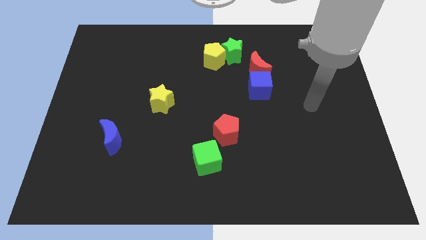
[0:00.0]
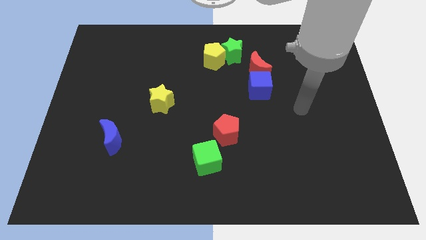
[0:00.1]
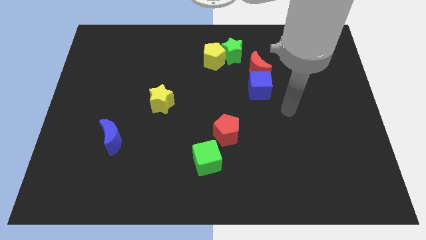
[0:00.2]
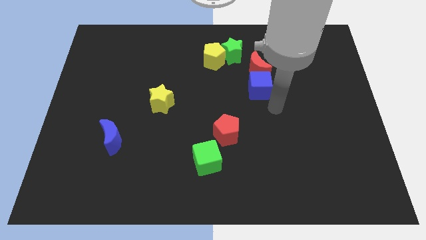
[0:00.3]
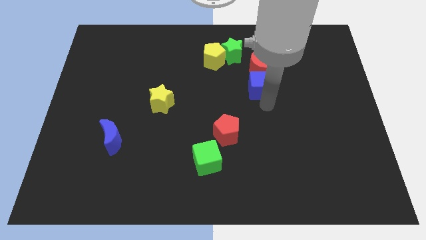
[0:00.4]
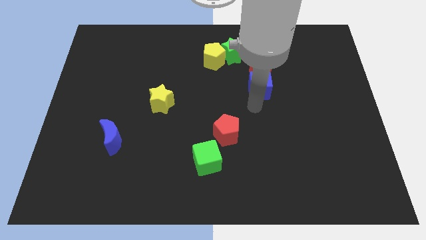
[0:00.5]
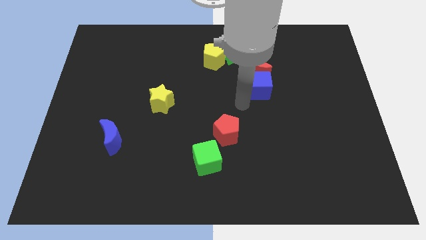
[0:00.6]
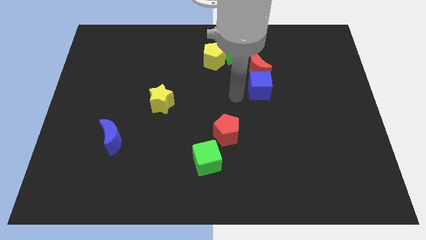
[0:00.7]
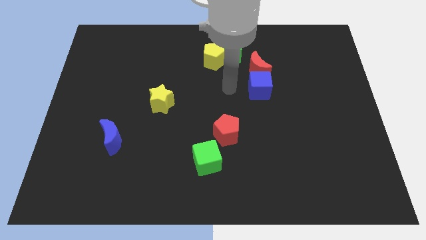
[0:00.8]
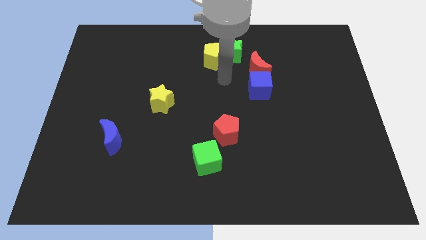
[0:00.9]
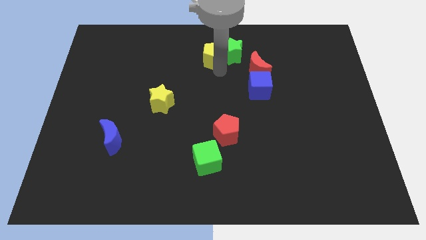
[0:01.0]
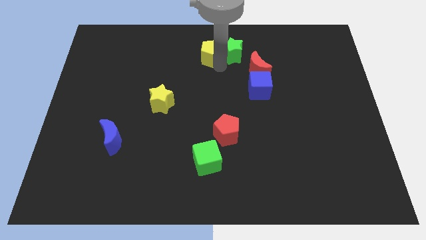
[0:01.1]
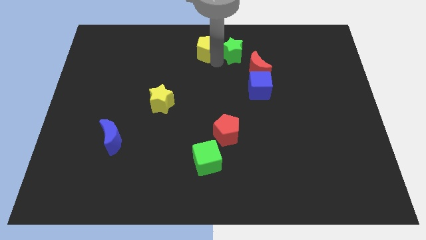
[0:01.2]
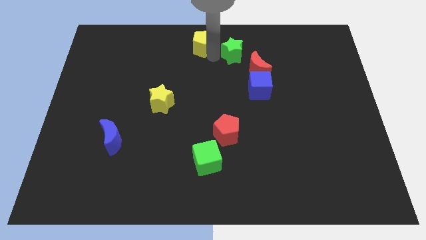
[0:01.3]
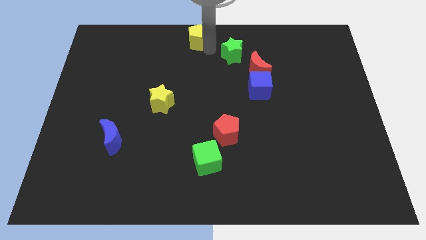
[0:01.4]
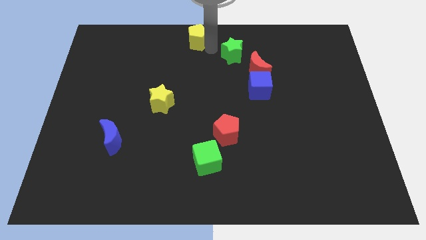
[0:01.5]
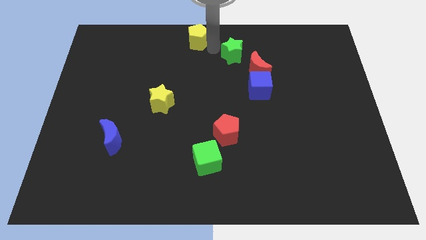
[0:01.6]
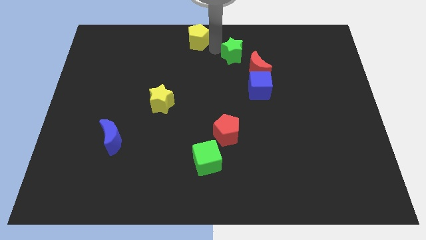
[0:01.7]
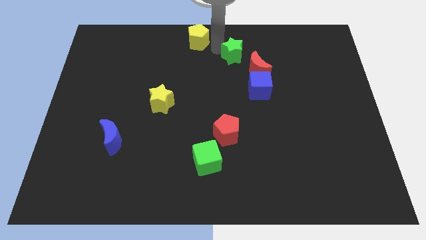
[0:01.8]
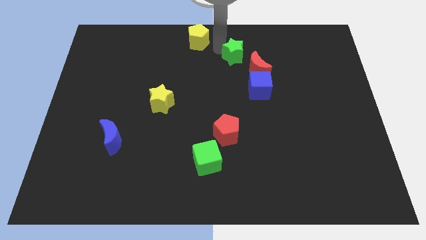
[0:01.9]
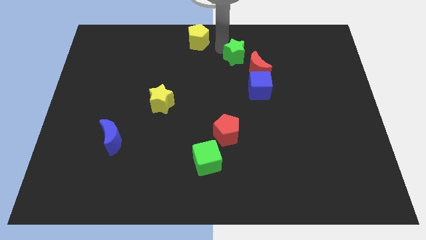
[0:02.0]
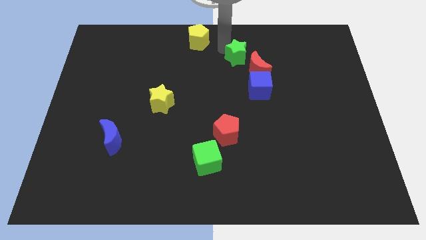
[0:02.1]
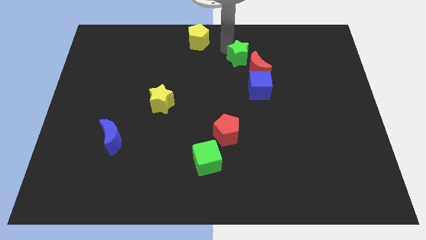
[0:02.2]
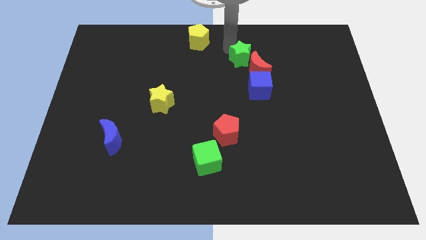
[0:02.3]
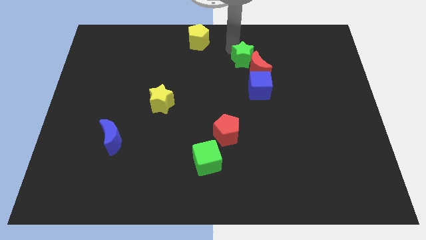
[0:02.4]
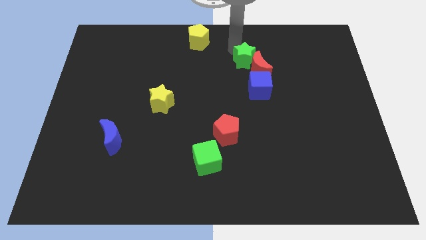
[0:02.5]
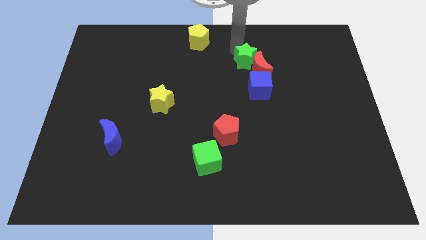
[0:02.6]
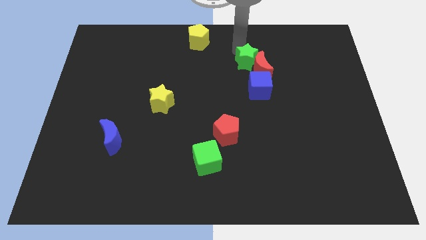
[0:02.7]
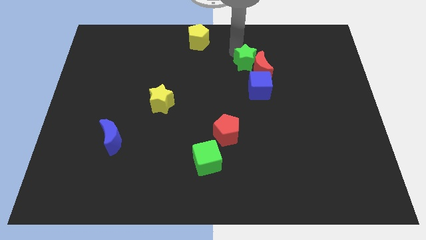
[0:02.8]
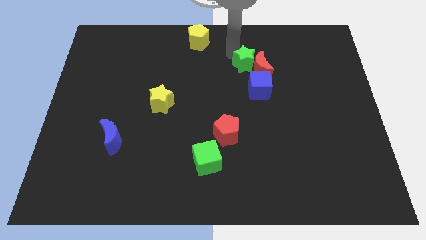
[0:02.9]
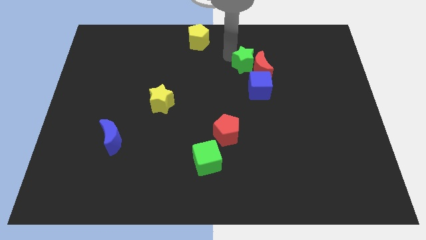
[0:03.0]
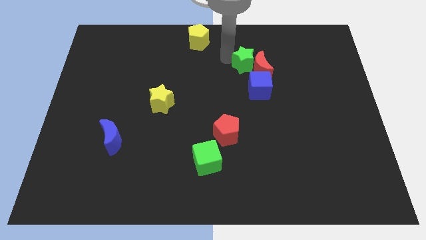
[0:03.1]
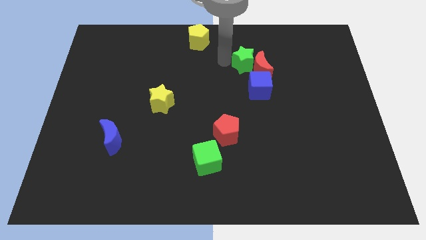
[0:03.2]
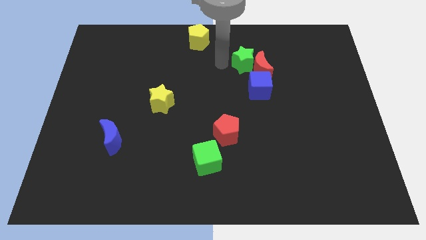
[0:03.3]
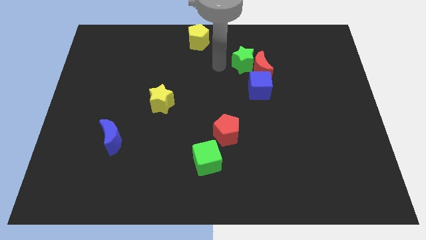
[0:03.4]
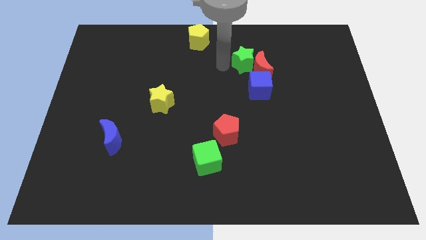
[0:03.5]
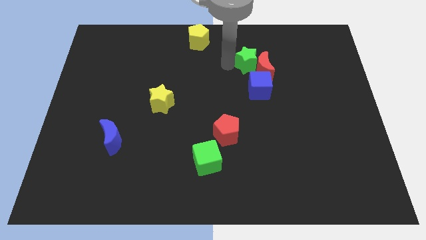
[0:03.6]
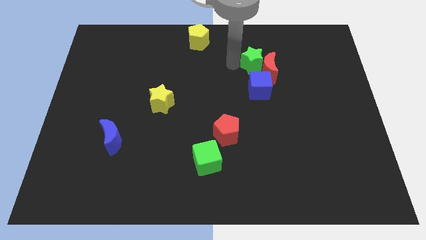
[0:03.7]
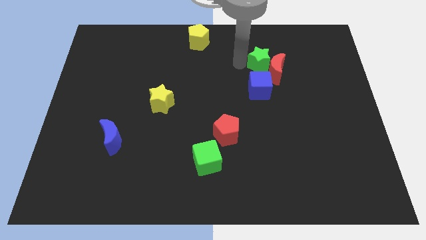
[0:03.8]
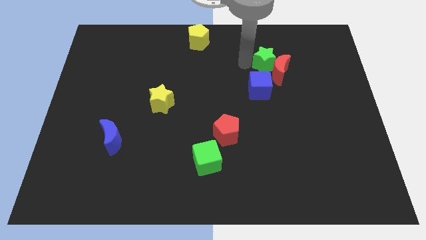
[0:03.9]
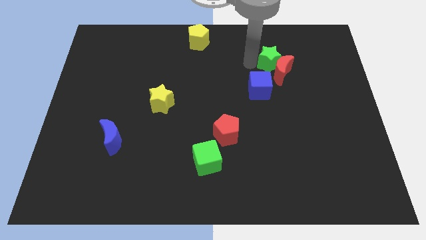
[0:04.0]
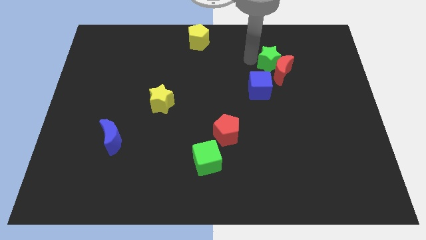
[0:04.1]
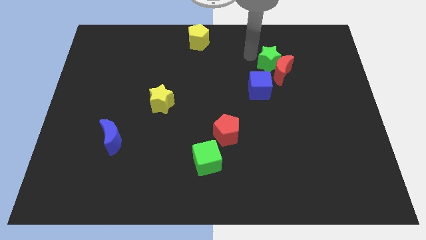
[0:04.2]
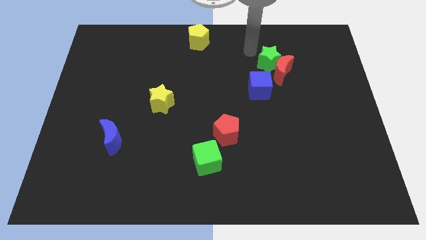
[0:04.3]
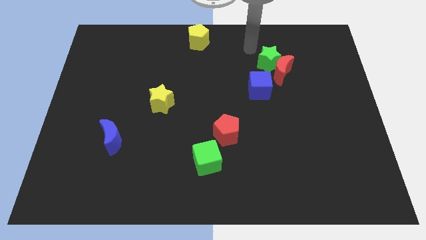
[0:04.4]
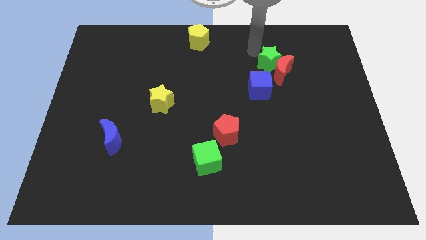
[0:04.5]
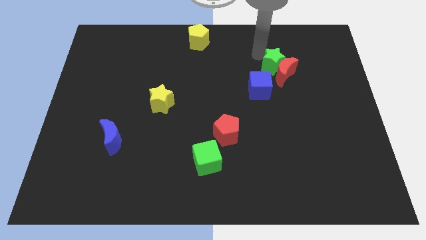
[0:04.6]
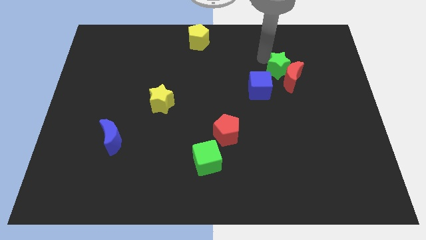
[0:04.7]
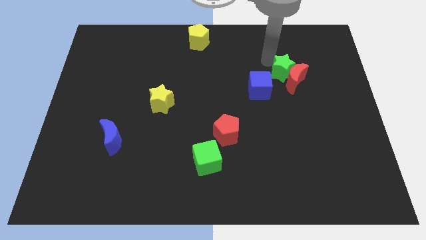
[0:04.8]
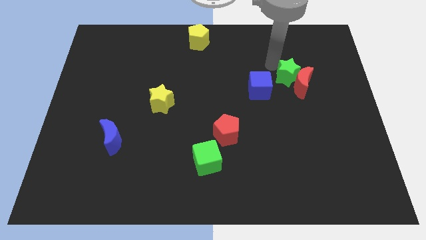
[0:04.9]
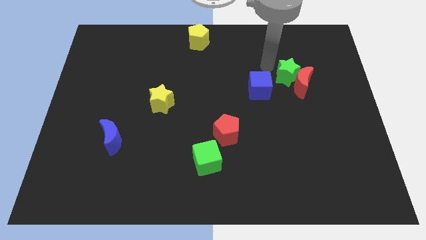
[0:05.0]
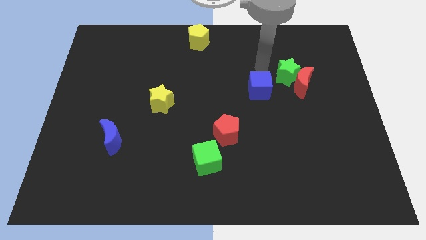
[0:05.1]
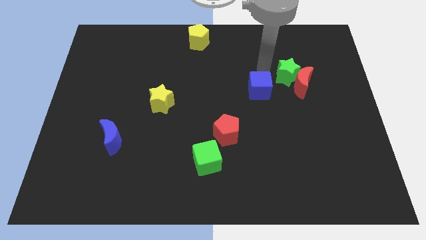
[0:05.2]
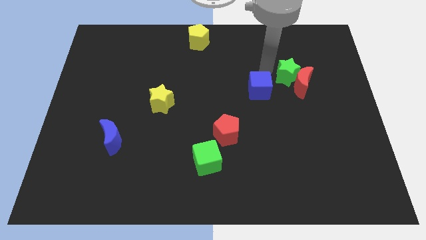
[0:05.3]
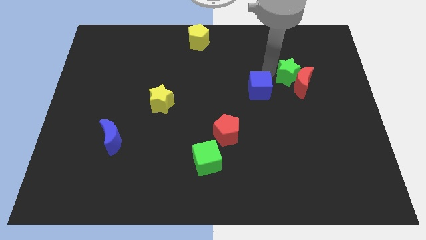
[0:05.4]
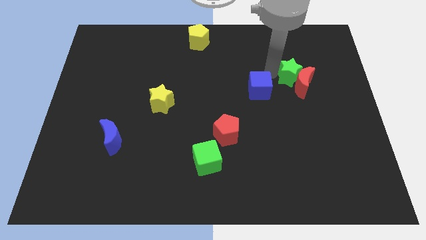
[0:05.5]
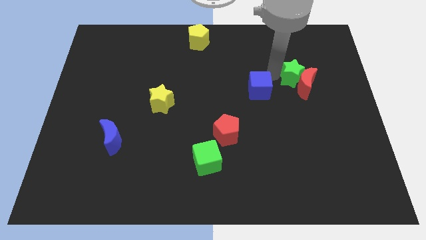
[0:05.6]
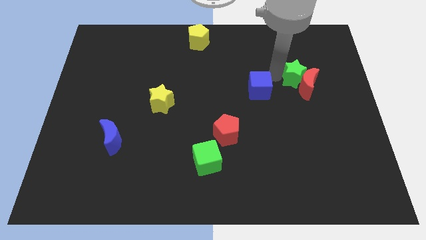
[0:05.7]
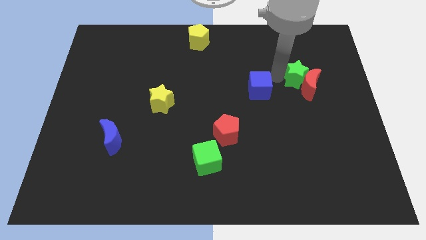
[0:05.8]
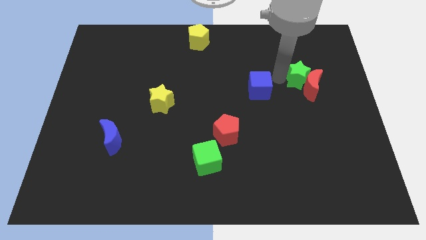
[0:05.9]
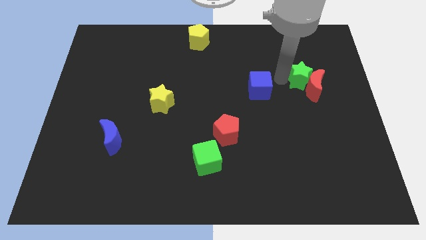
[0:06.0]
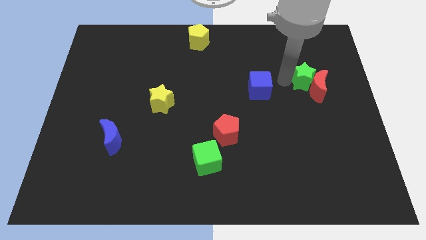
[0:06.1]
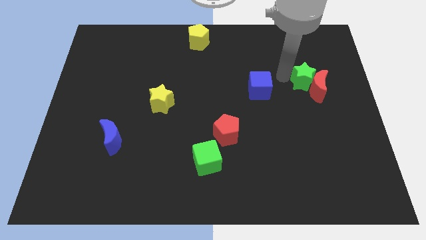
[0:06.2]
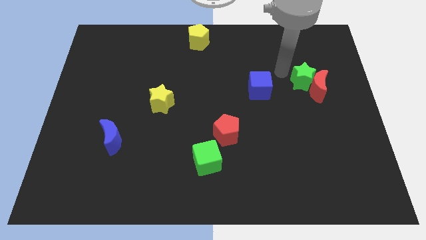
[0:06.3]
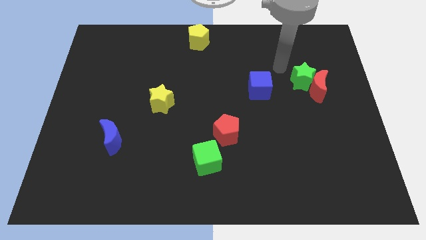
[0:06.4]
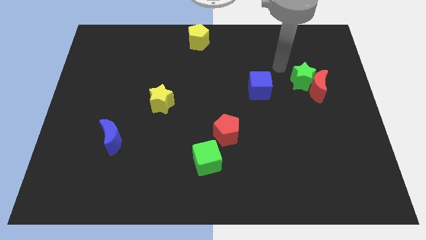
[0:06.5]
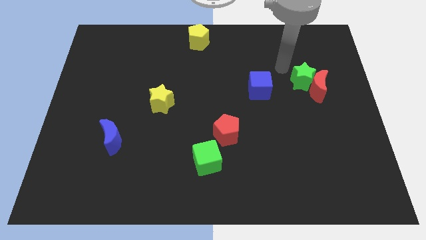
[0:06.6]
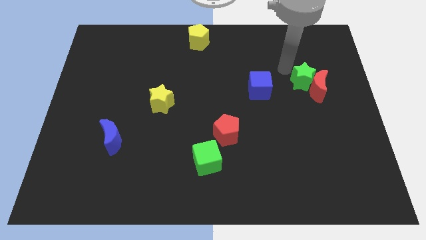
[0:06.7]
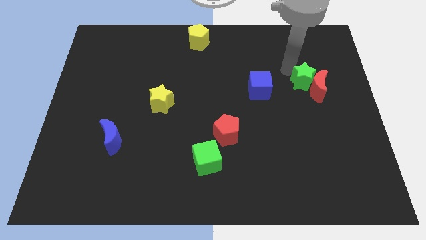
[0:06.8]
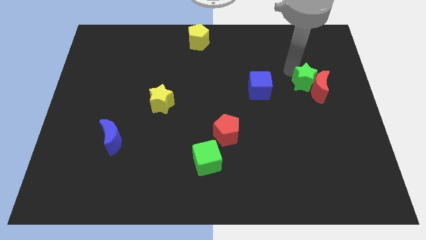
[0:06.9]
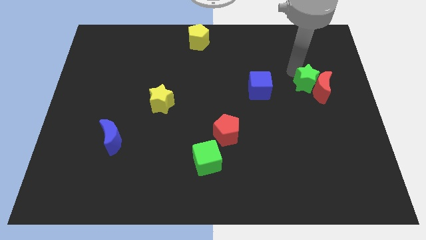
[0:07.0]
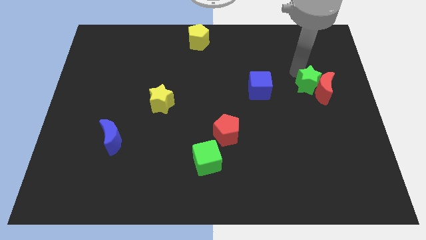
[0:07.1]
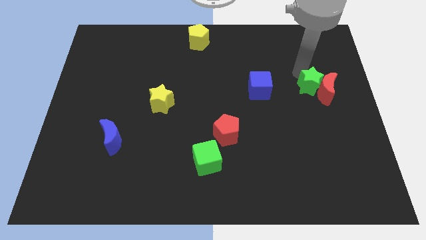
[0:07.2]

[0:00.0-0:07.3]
push the green star downwards and right
